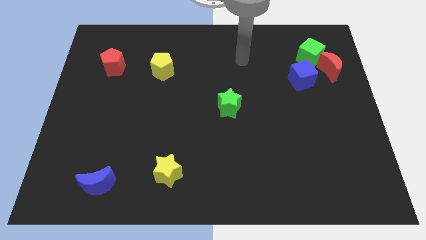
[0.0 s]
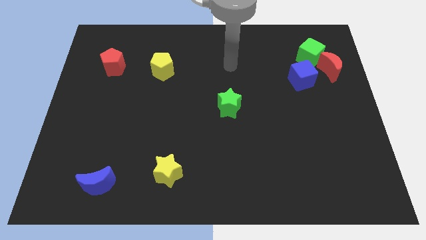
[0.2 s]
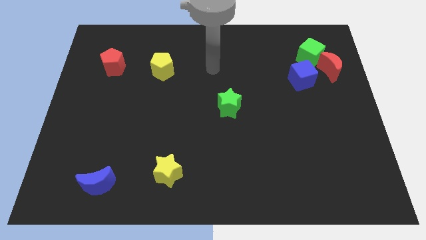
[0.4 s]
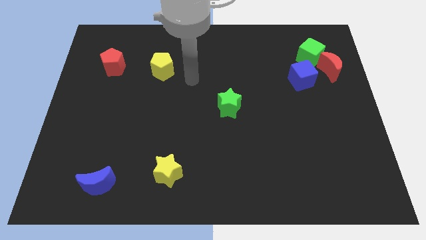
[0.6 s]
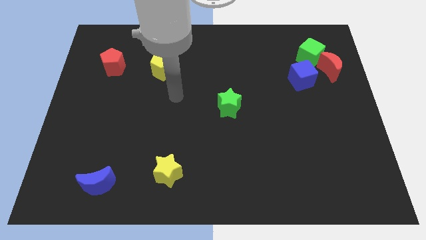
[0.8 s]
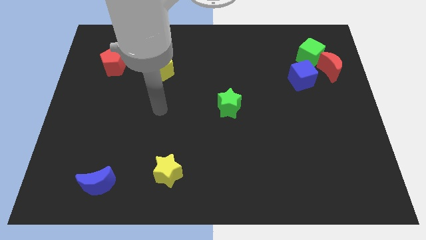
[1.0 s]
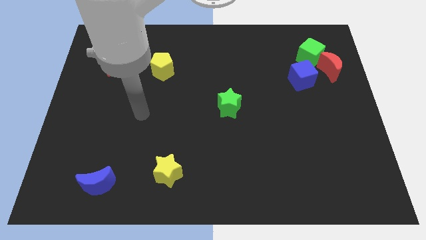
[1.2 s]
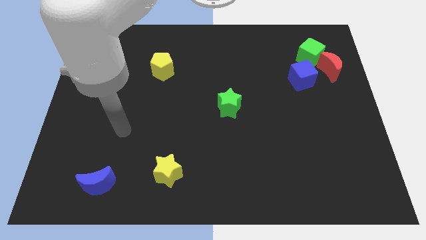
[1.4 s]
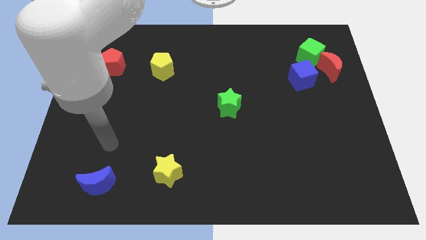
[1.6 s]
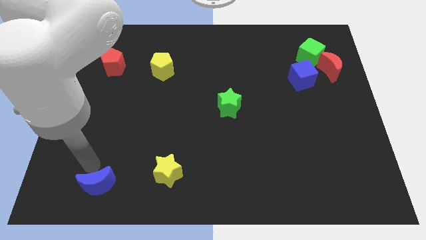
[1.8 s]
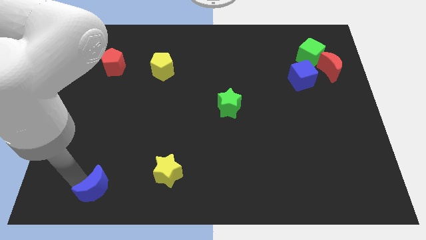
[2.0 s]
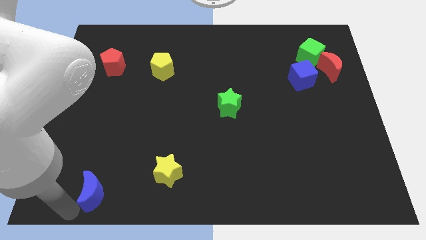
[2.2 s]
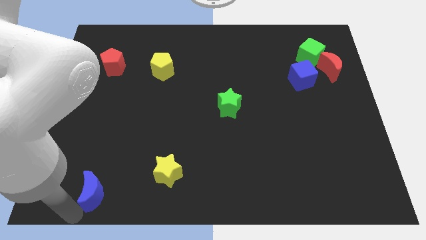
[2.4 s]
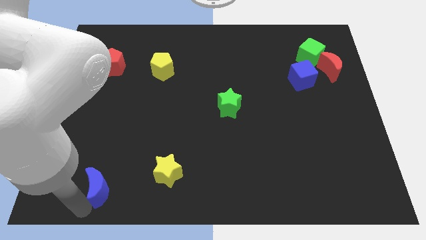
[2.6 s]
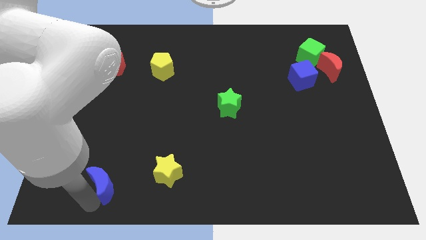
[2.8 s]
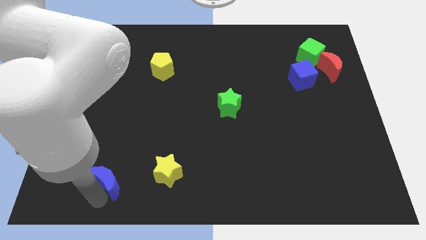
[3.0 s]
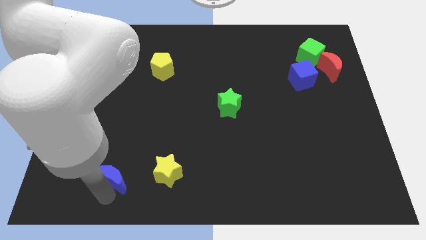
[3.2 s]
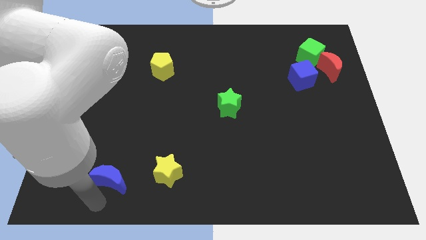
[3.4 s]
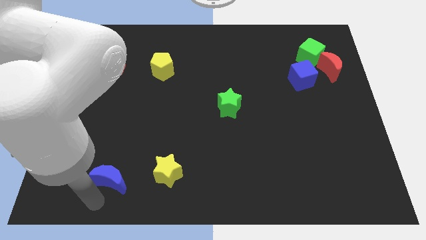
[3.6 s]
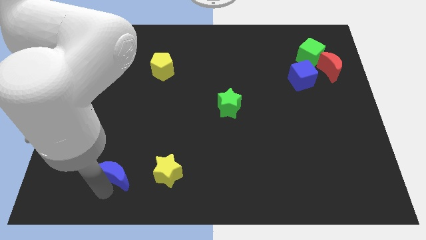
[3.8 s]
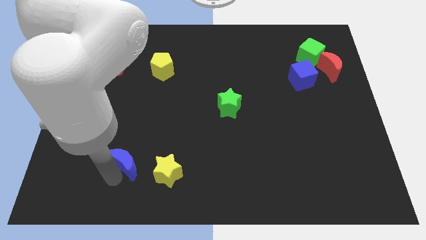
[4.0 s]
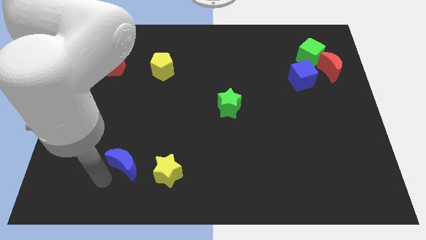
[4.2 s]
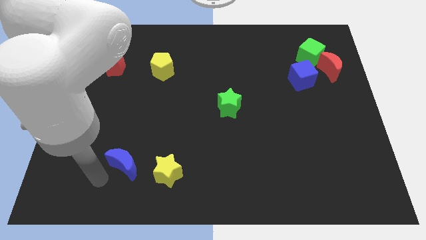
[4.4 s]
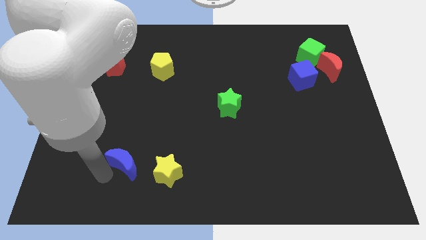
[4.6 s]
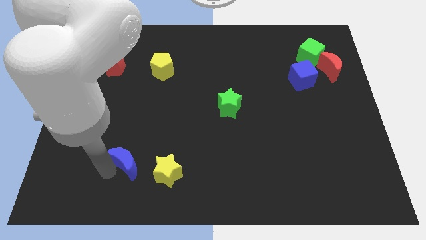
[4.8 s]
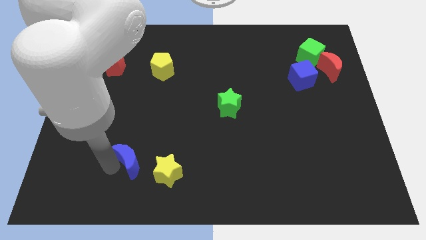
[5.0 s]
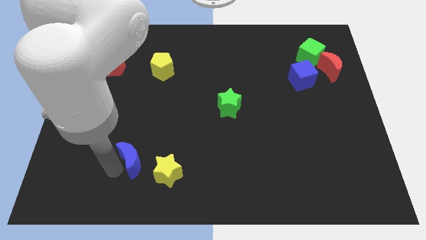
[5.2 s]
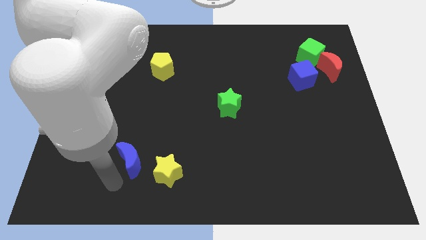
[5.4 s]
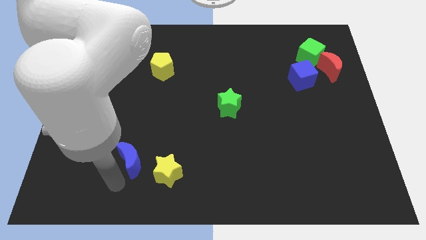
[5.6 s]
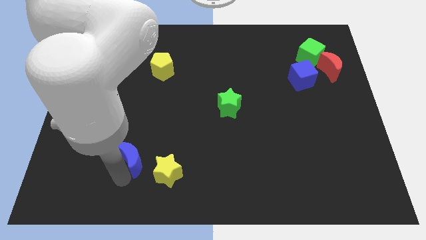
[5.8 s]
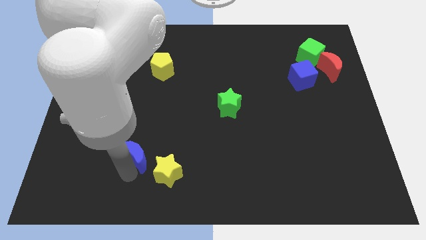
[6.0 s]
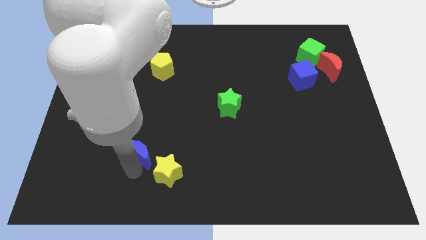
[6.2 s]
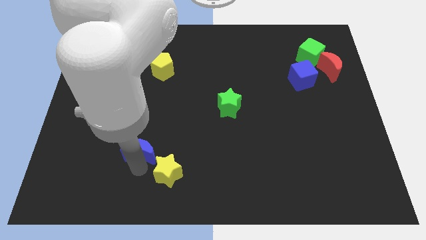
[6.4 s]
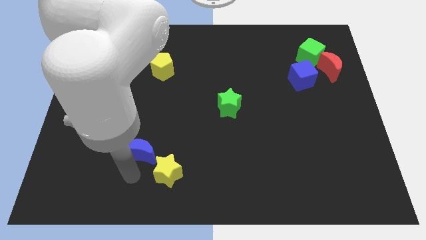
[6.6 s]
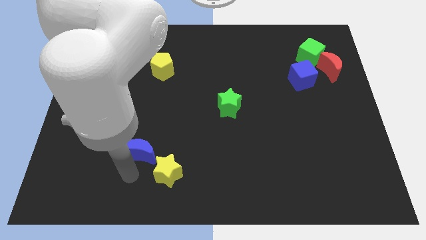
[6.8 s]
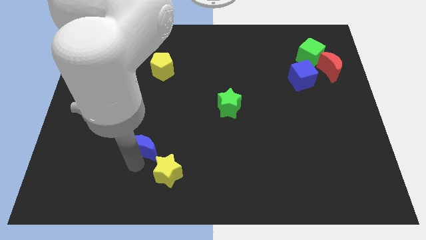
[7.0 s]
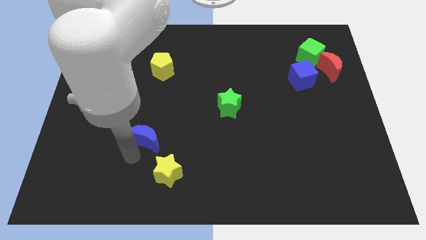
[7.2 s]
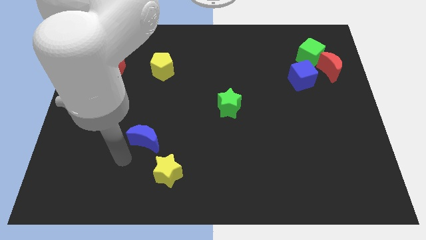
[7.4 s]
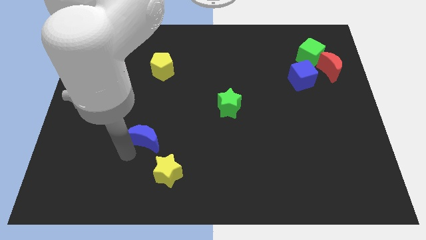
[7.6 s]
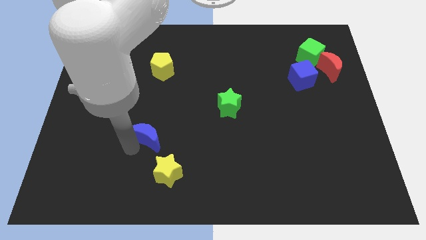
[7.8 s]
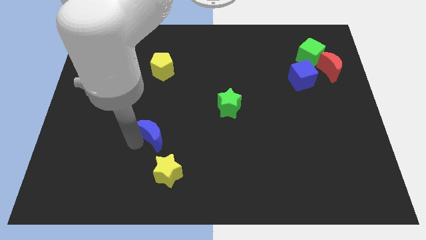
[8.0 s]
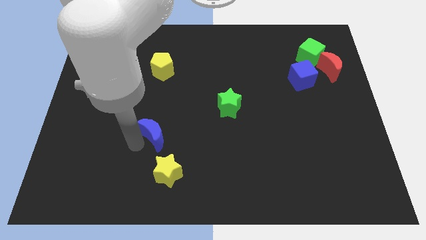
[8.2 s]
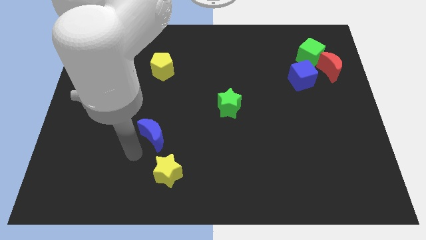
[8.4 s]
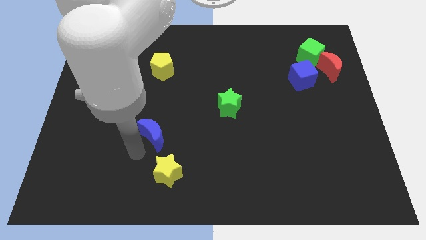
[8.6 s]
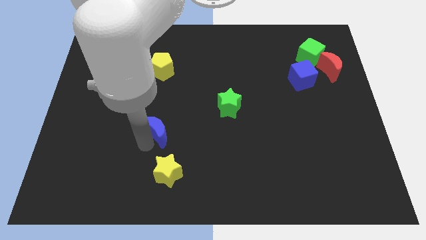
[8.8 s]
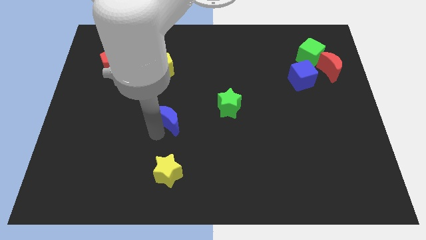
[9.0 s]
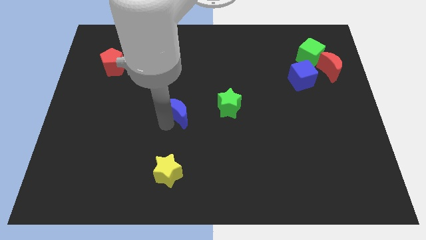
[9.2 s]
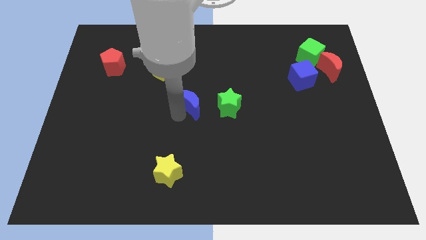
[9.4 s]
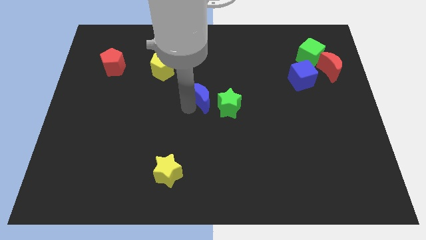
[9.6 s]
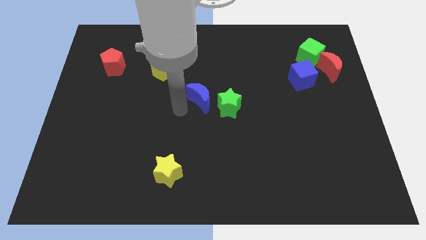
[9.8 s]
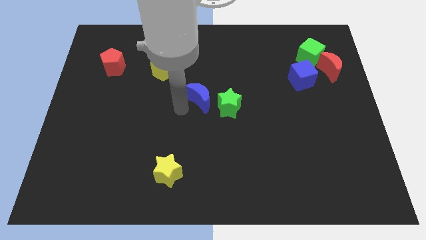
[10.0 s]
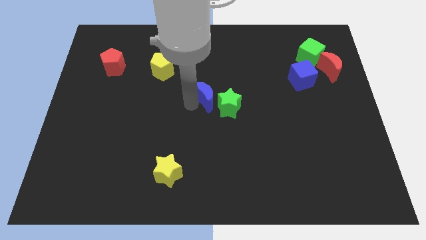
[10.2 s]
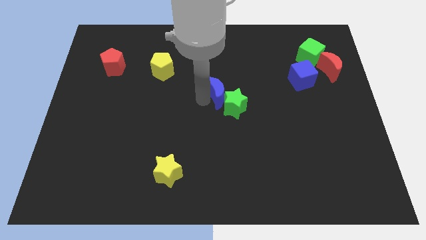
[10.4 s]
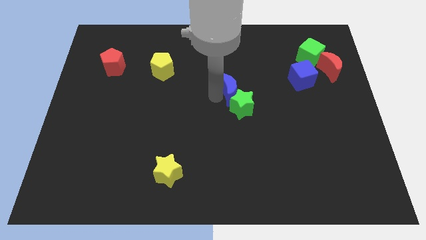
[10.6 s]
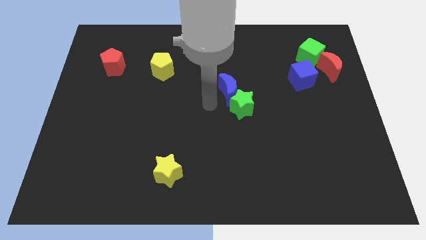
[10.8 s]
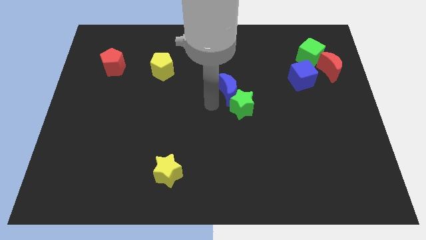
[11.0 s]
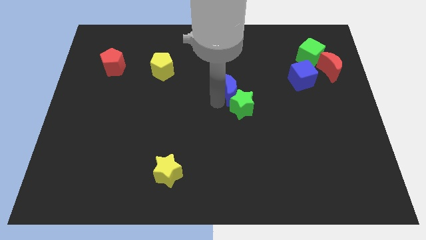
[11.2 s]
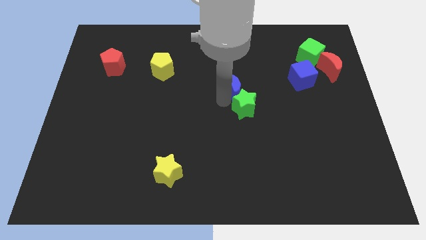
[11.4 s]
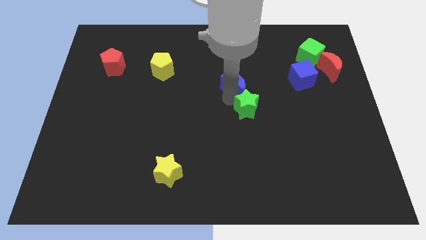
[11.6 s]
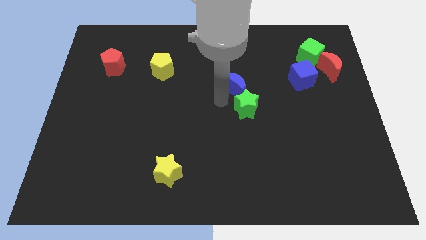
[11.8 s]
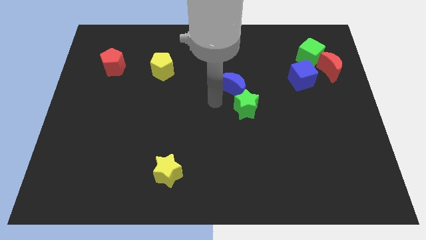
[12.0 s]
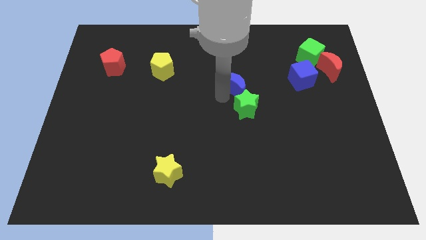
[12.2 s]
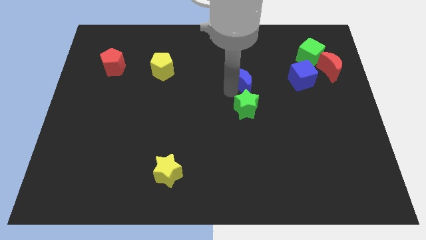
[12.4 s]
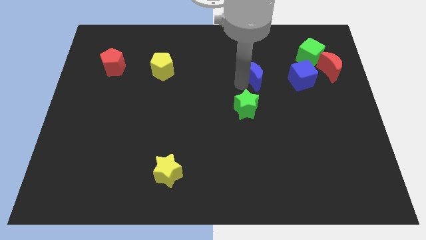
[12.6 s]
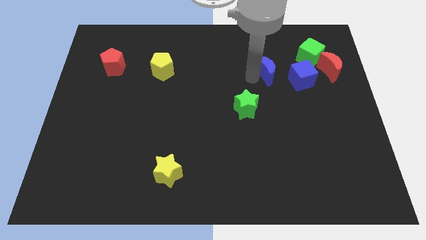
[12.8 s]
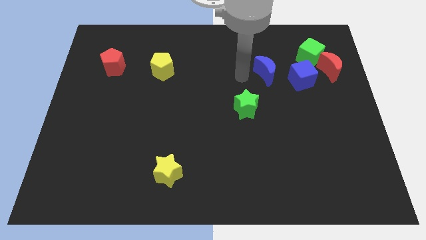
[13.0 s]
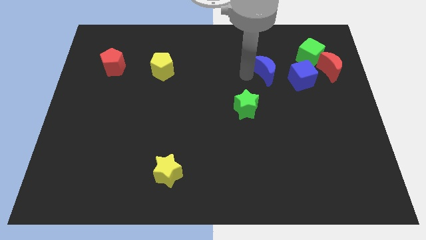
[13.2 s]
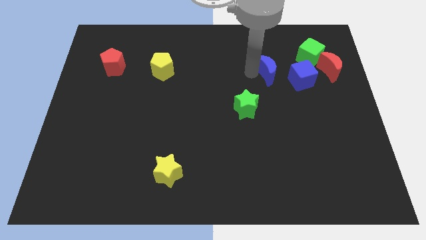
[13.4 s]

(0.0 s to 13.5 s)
move the blue moon left of the red moon
